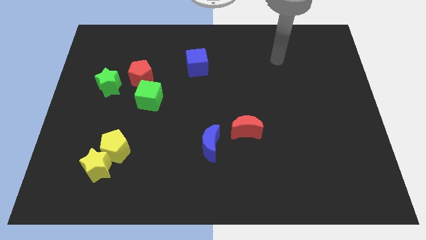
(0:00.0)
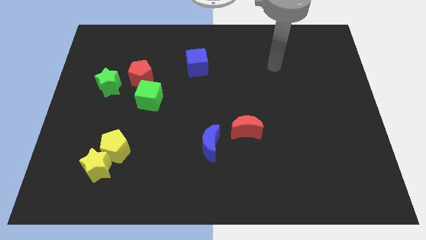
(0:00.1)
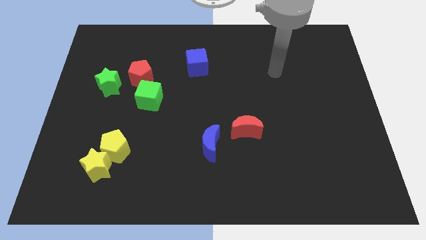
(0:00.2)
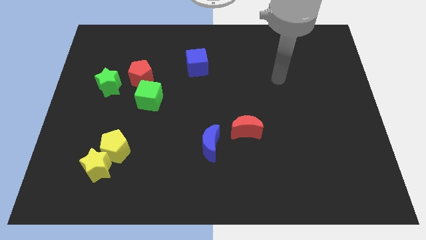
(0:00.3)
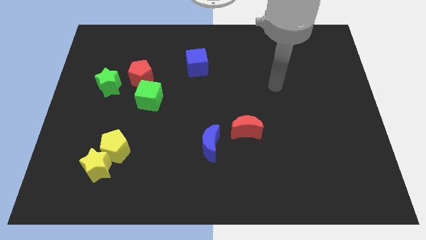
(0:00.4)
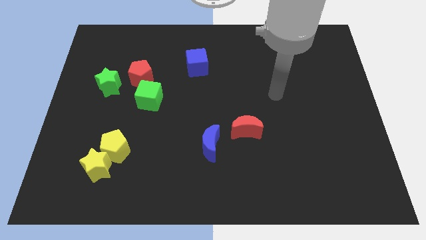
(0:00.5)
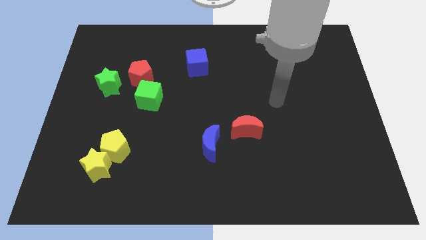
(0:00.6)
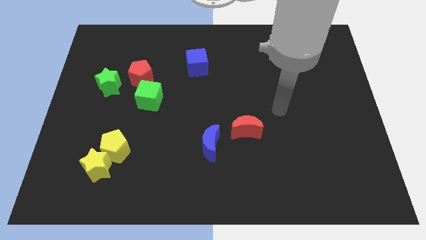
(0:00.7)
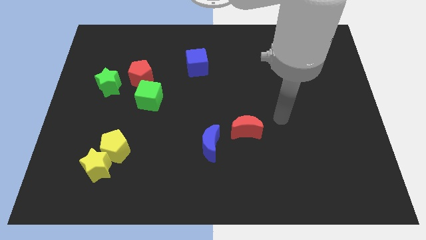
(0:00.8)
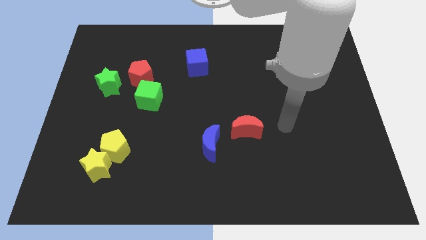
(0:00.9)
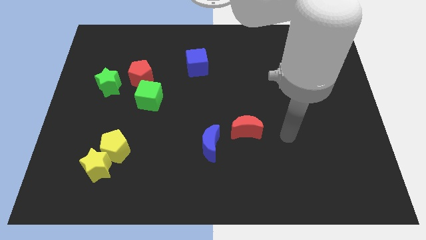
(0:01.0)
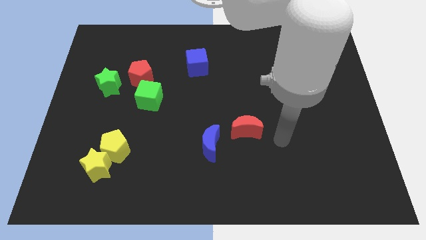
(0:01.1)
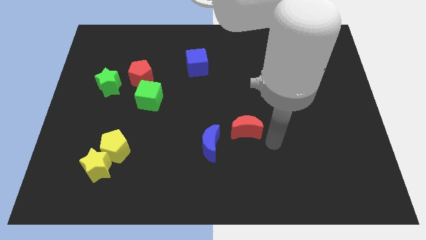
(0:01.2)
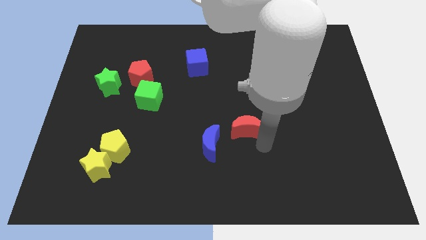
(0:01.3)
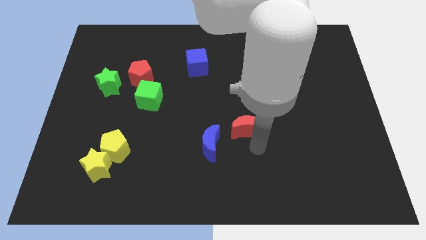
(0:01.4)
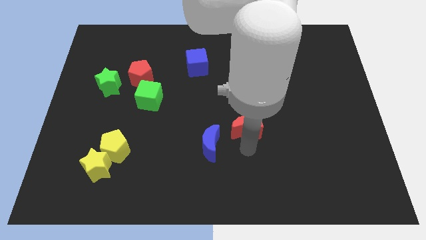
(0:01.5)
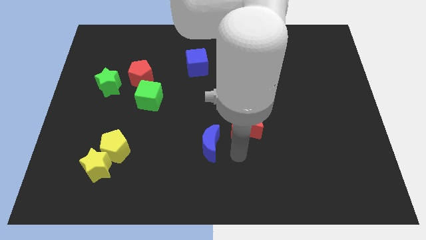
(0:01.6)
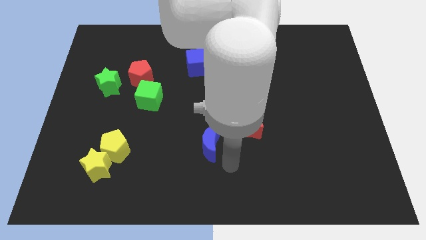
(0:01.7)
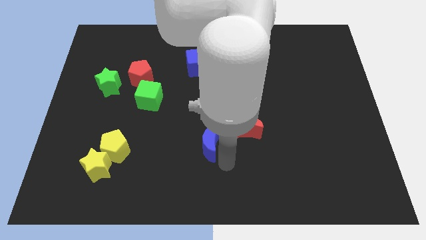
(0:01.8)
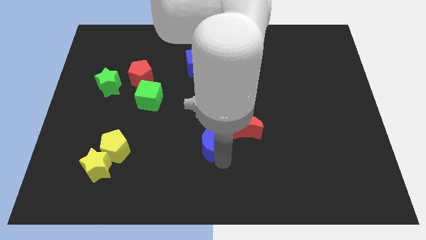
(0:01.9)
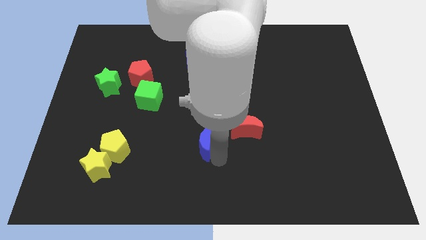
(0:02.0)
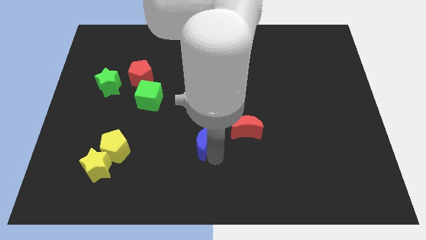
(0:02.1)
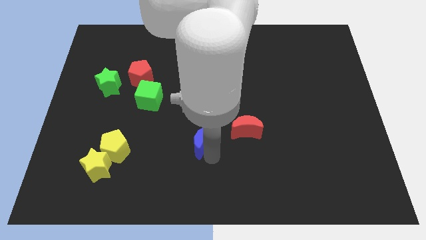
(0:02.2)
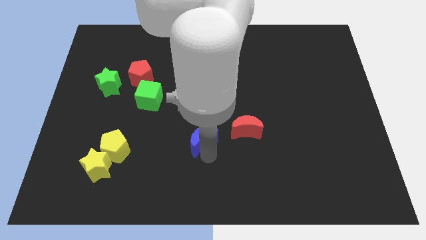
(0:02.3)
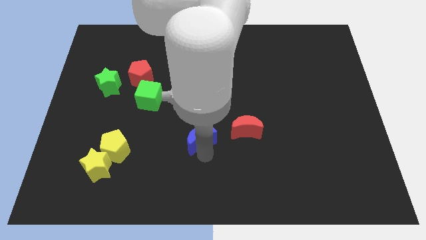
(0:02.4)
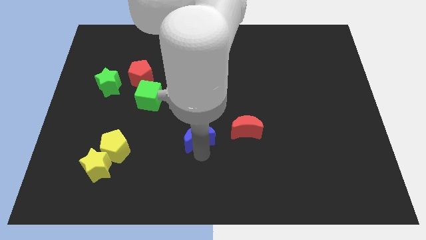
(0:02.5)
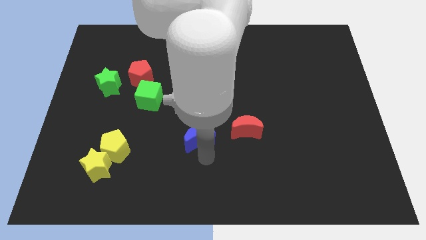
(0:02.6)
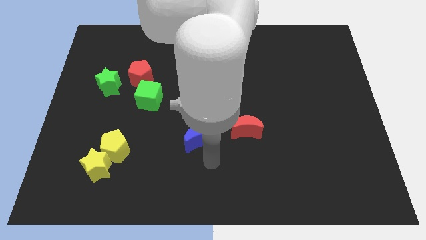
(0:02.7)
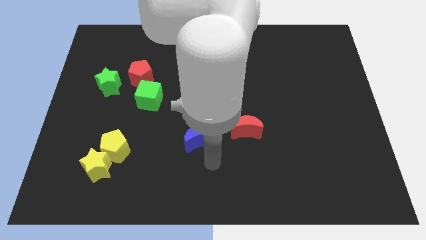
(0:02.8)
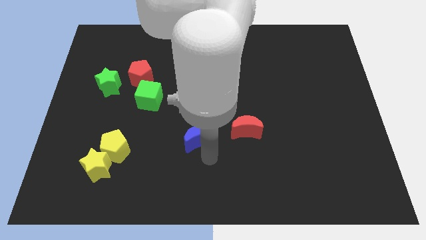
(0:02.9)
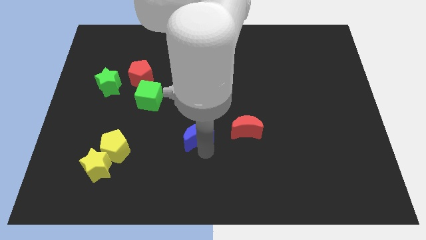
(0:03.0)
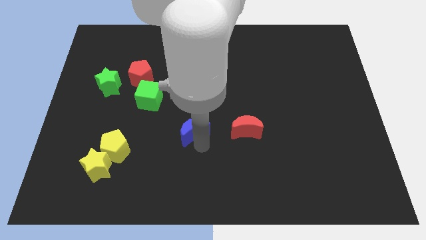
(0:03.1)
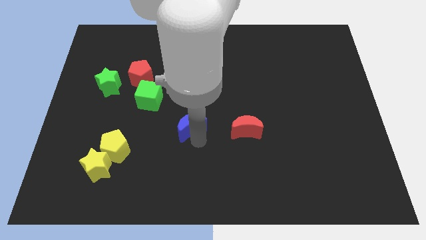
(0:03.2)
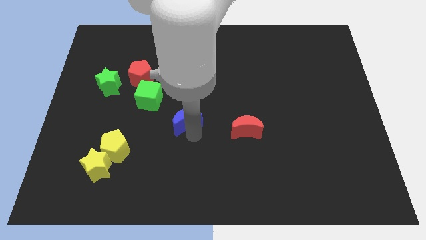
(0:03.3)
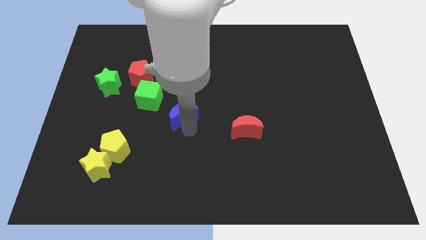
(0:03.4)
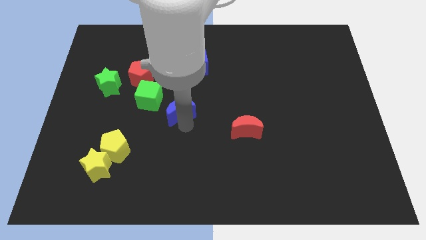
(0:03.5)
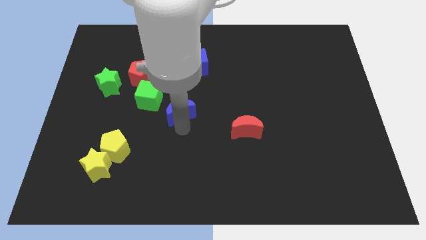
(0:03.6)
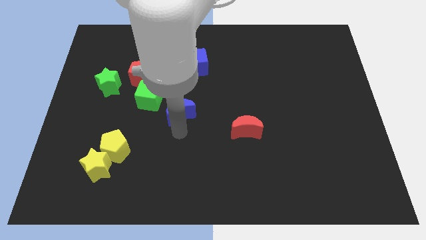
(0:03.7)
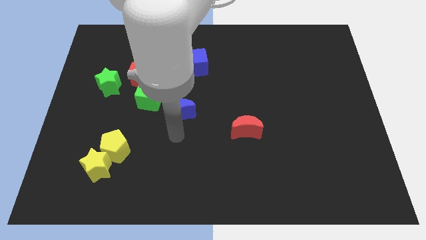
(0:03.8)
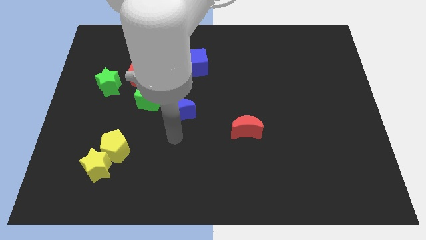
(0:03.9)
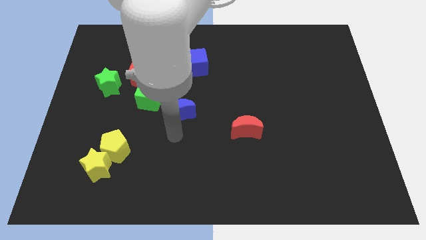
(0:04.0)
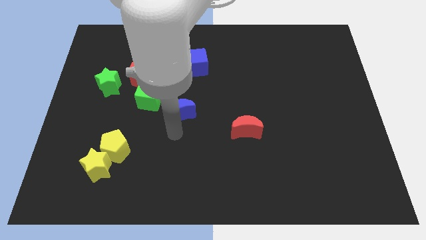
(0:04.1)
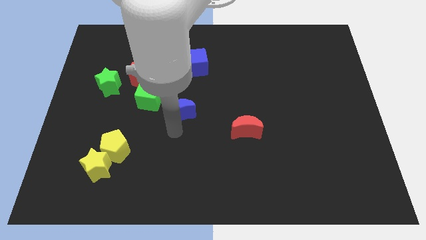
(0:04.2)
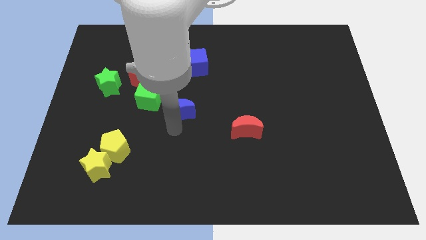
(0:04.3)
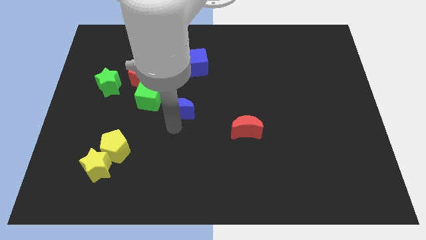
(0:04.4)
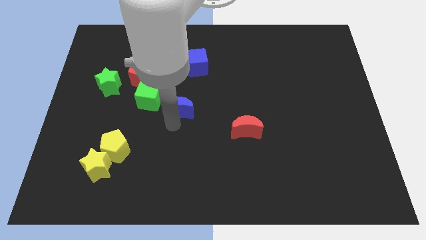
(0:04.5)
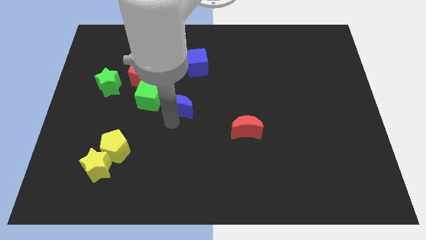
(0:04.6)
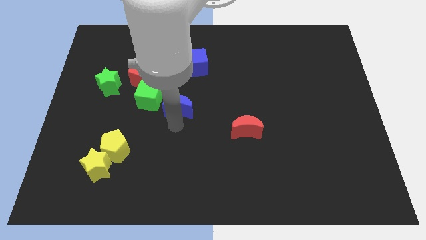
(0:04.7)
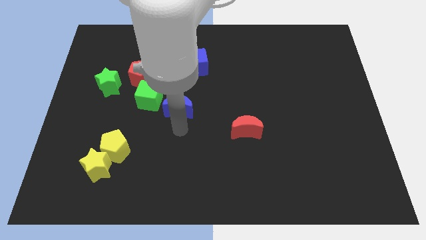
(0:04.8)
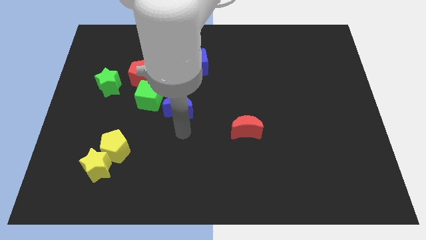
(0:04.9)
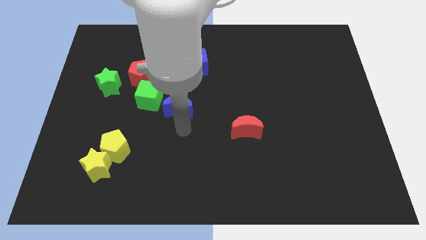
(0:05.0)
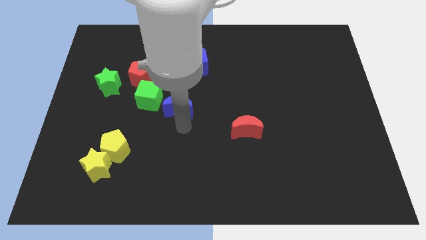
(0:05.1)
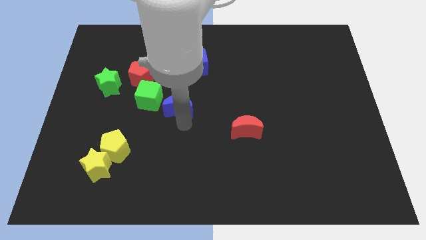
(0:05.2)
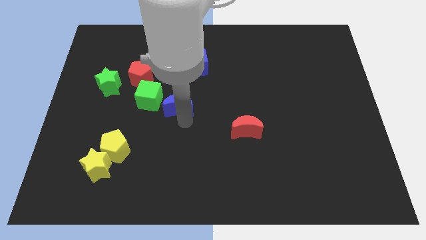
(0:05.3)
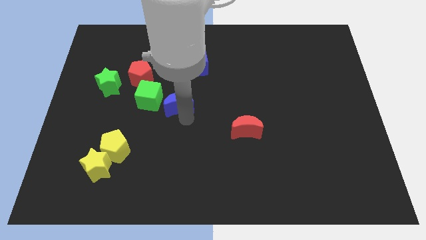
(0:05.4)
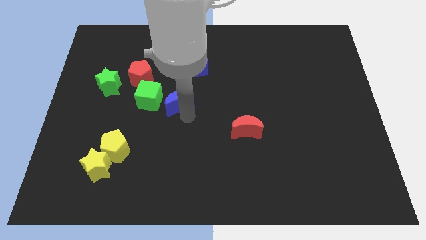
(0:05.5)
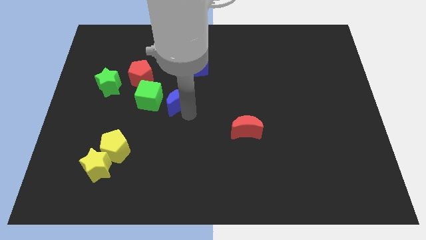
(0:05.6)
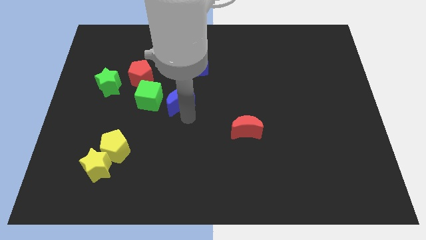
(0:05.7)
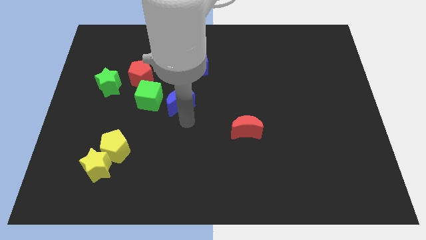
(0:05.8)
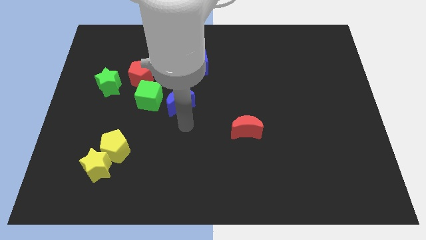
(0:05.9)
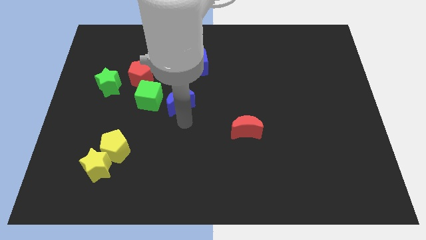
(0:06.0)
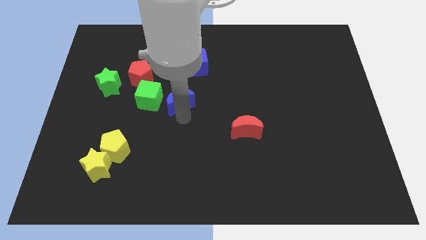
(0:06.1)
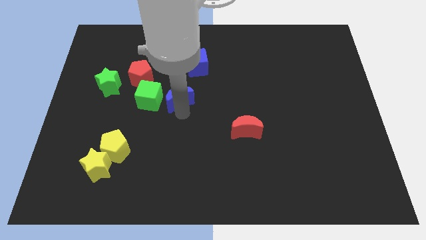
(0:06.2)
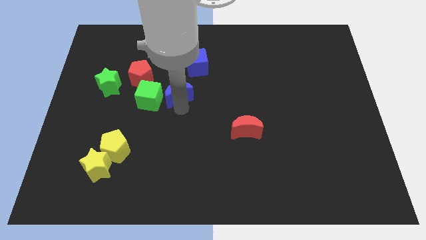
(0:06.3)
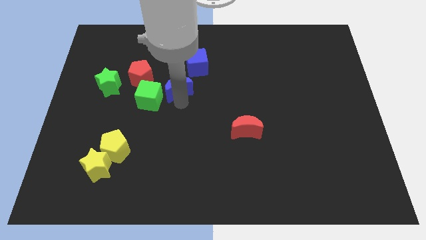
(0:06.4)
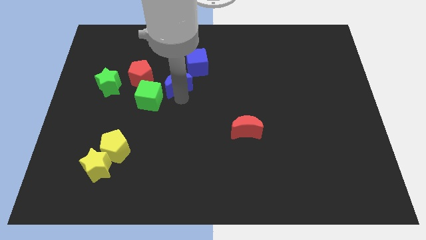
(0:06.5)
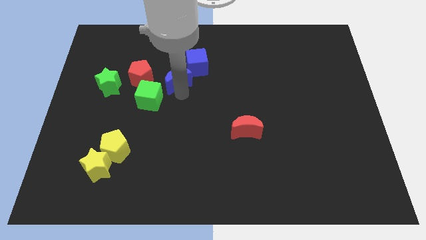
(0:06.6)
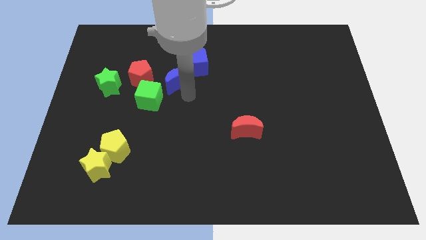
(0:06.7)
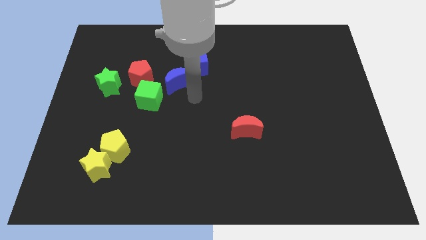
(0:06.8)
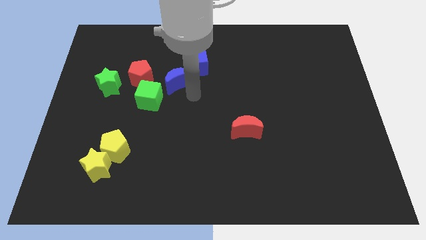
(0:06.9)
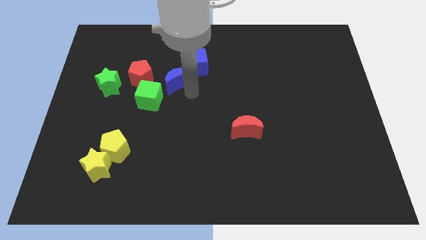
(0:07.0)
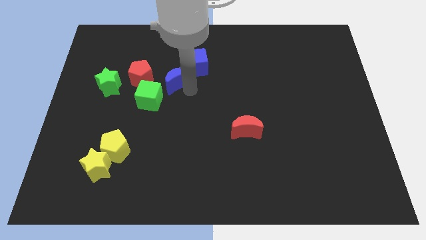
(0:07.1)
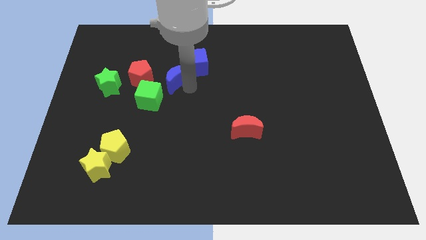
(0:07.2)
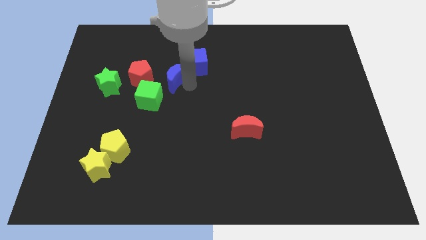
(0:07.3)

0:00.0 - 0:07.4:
push the blue moon just left of the blue cube
